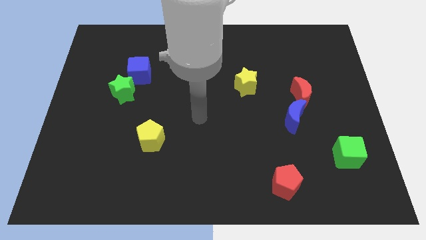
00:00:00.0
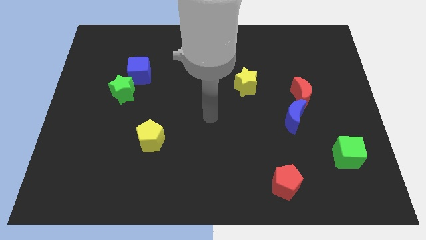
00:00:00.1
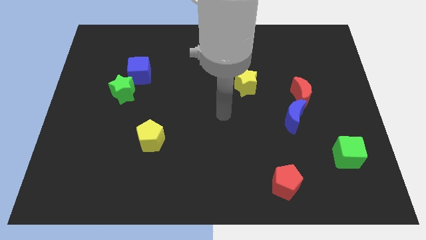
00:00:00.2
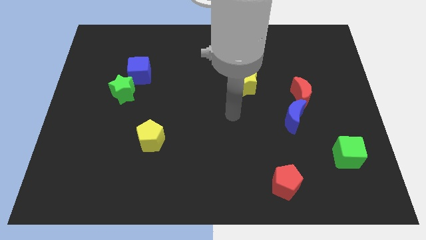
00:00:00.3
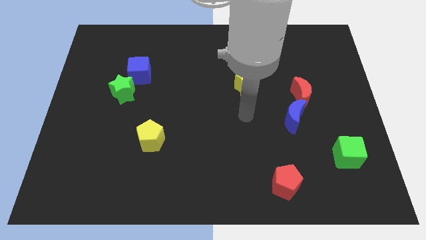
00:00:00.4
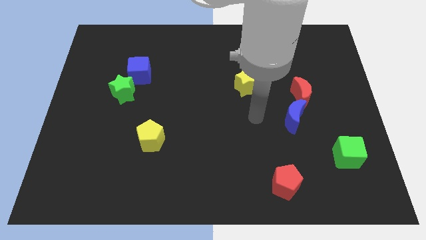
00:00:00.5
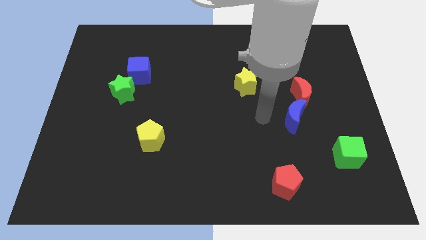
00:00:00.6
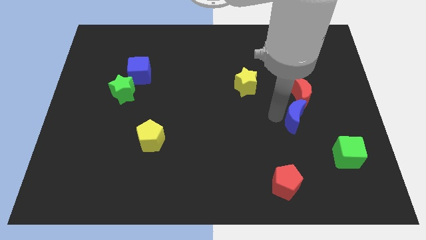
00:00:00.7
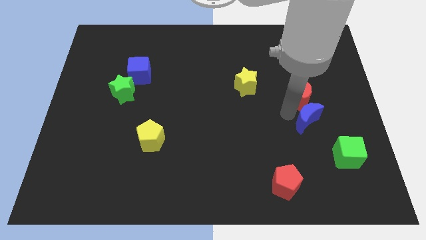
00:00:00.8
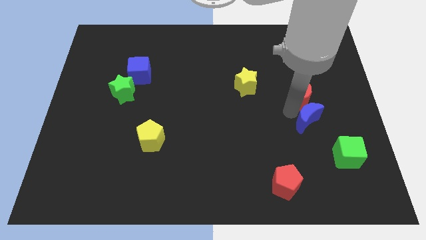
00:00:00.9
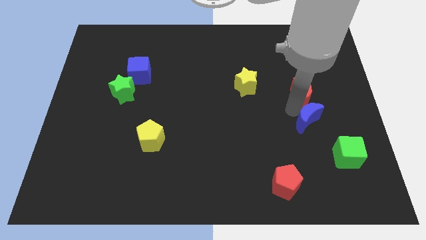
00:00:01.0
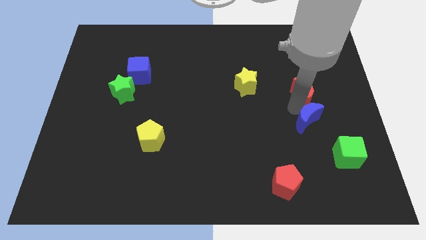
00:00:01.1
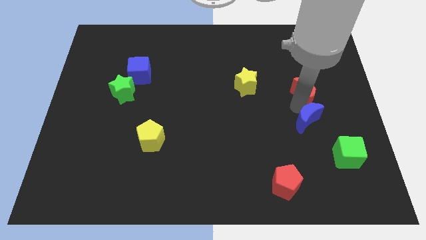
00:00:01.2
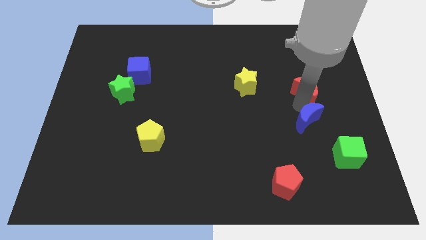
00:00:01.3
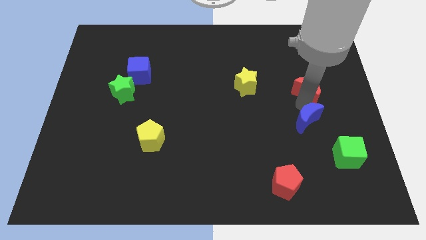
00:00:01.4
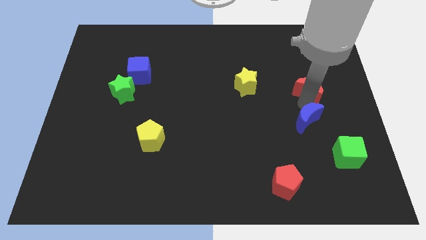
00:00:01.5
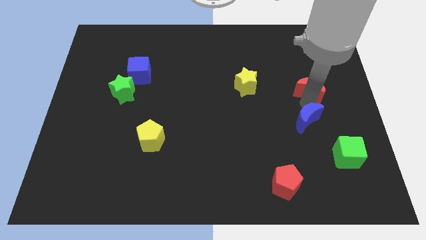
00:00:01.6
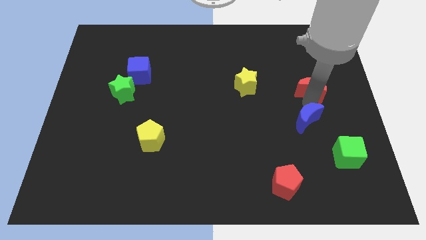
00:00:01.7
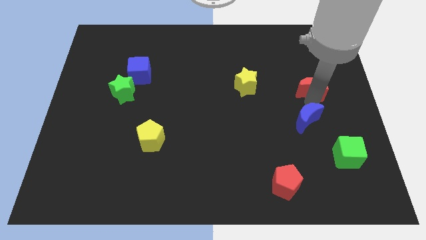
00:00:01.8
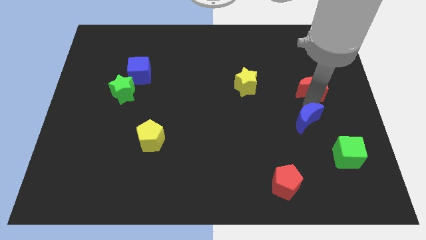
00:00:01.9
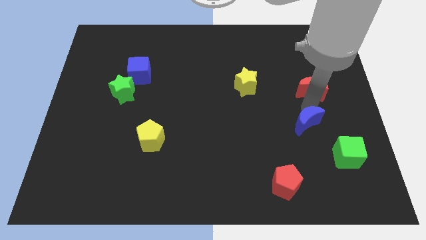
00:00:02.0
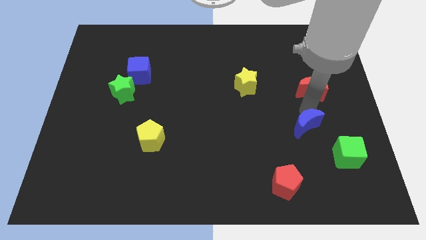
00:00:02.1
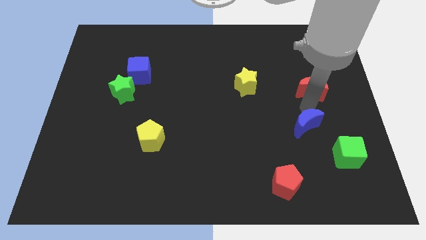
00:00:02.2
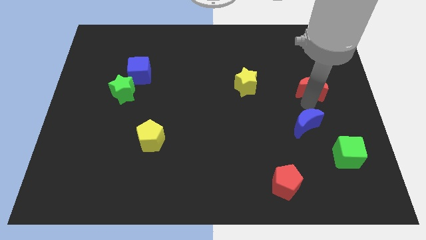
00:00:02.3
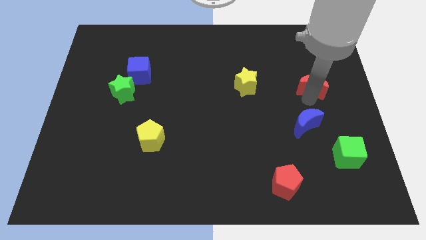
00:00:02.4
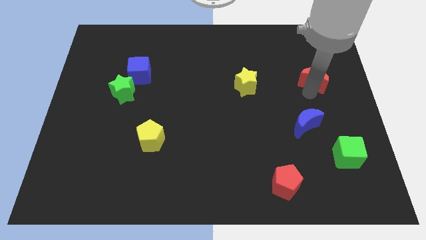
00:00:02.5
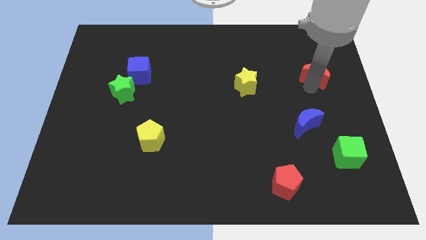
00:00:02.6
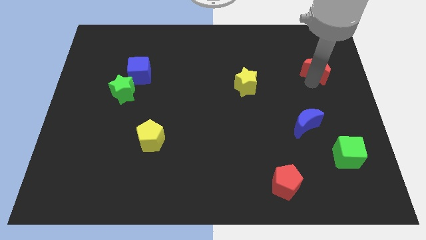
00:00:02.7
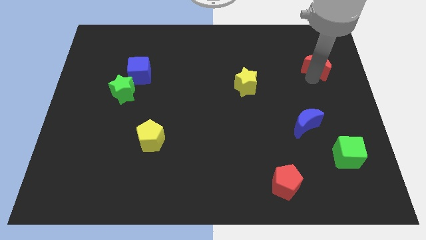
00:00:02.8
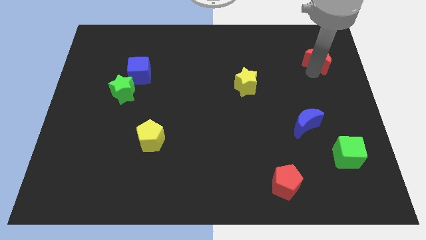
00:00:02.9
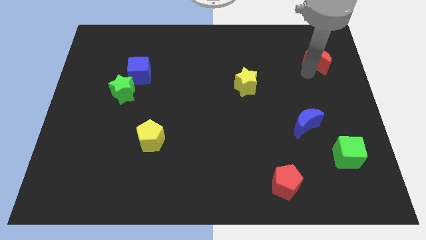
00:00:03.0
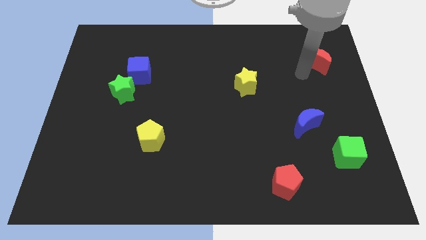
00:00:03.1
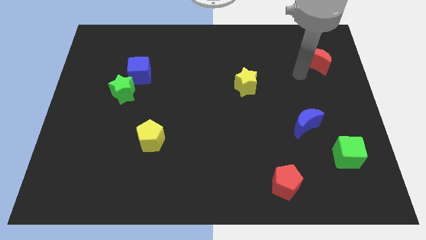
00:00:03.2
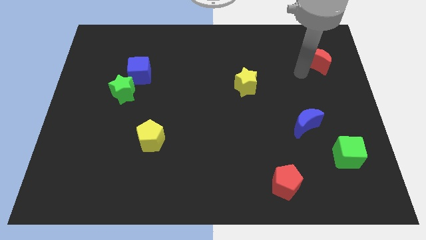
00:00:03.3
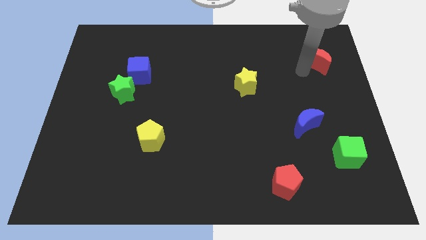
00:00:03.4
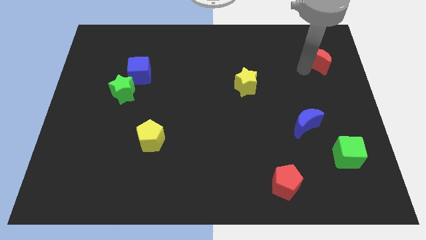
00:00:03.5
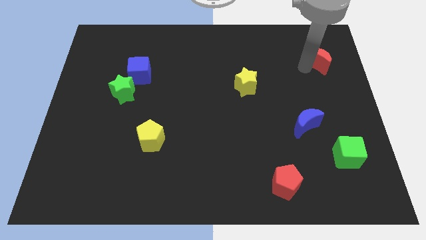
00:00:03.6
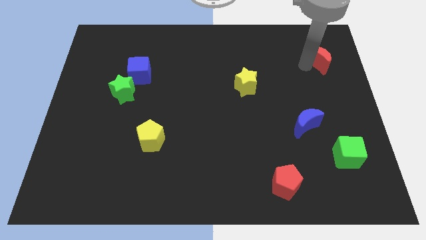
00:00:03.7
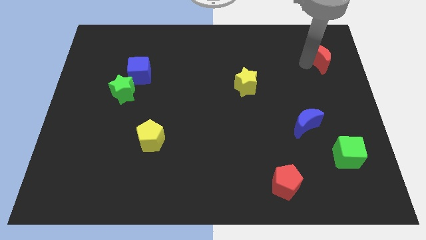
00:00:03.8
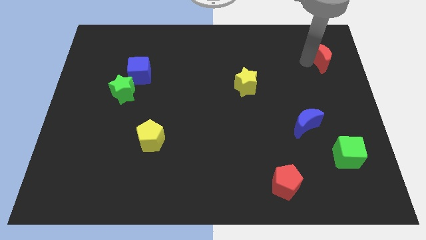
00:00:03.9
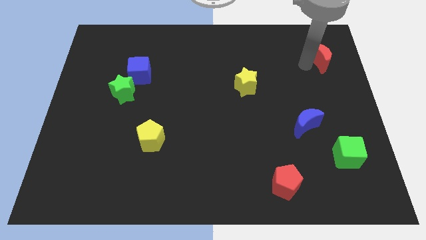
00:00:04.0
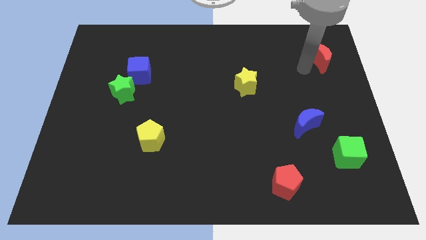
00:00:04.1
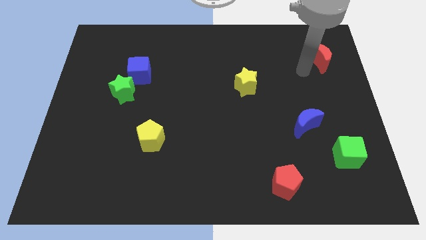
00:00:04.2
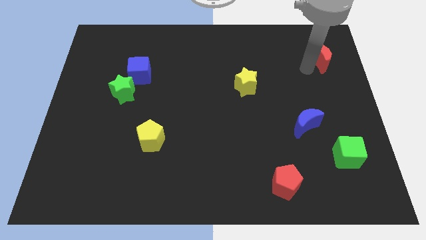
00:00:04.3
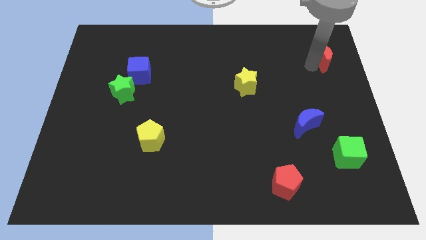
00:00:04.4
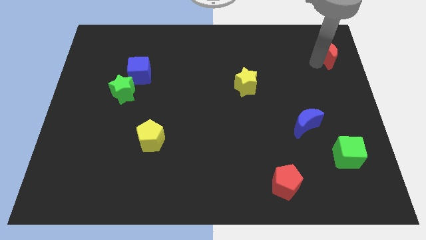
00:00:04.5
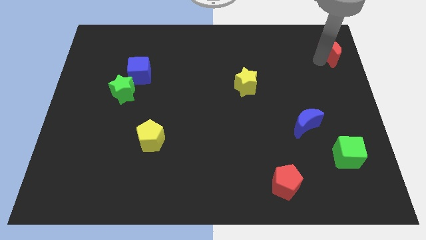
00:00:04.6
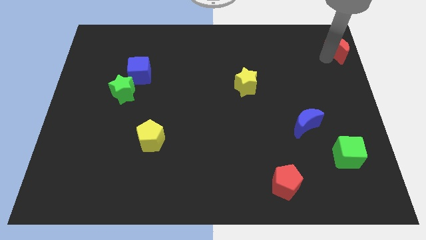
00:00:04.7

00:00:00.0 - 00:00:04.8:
move the red moon to the top right

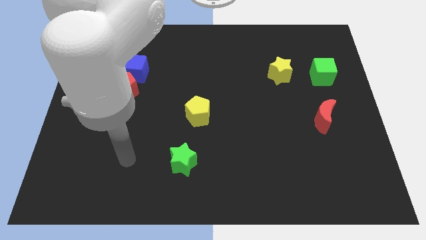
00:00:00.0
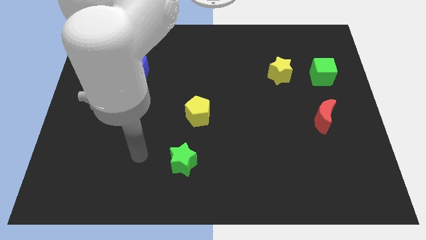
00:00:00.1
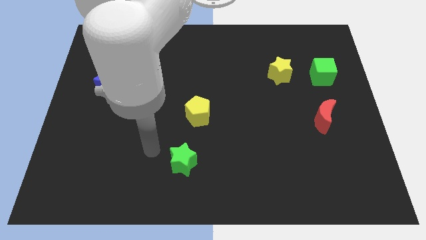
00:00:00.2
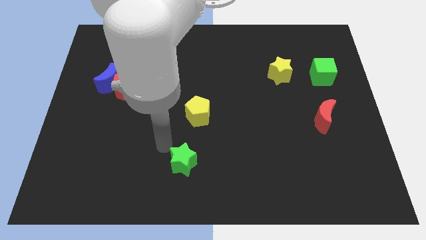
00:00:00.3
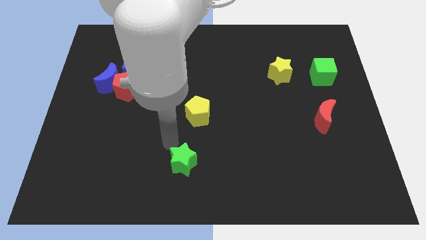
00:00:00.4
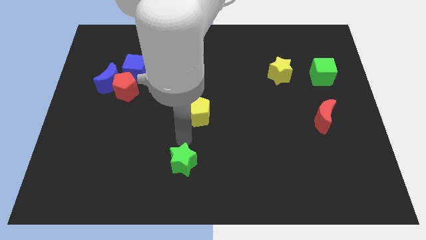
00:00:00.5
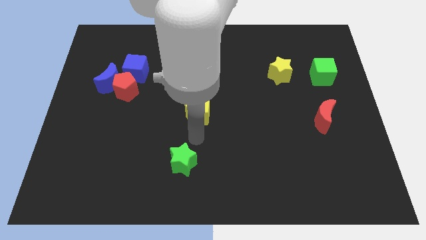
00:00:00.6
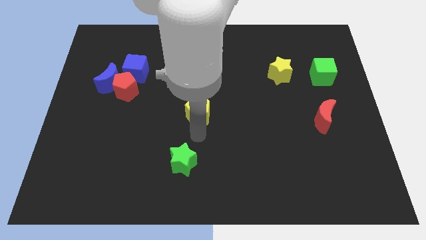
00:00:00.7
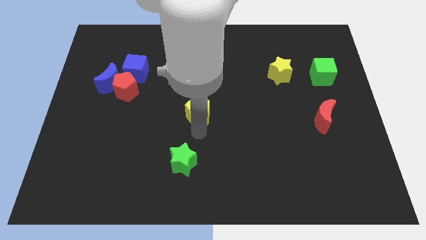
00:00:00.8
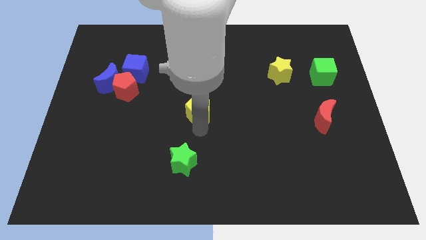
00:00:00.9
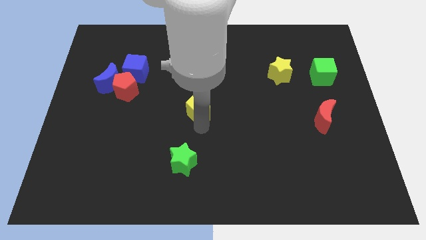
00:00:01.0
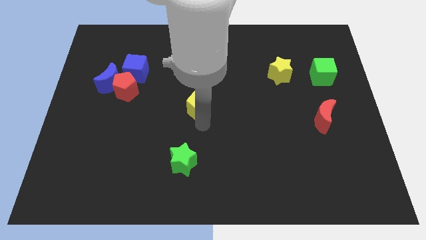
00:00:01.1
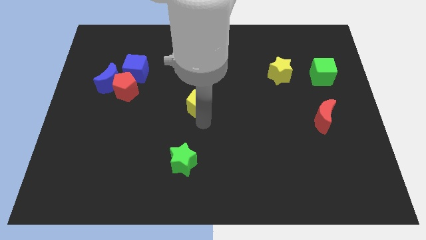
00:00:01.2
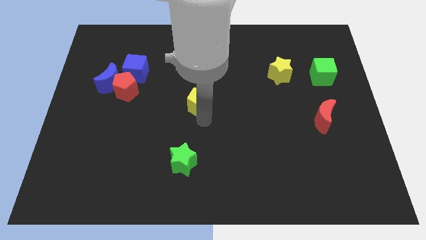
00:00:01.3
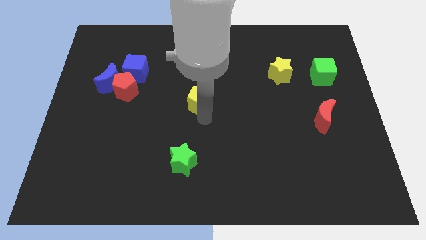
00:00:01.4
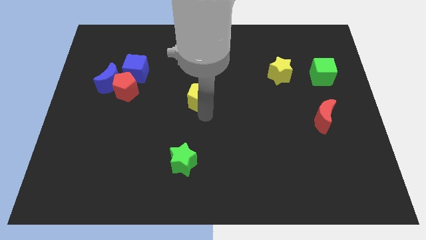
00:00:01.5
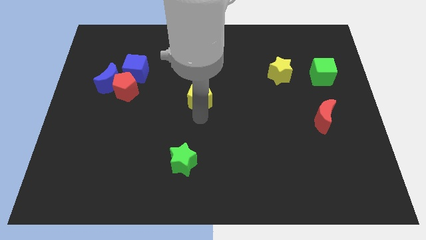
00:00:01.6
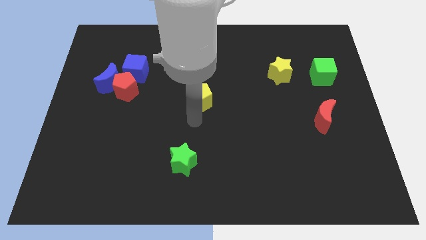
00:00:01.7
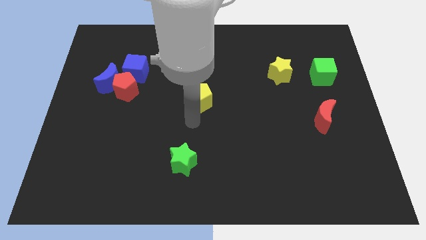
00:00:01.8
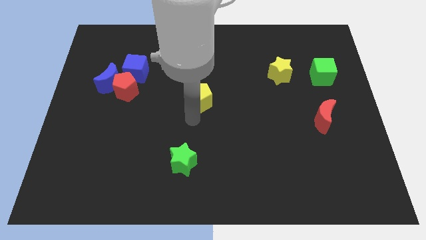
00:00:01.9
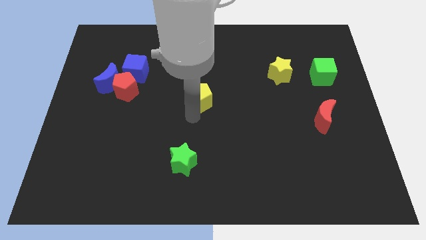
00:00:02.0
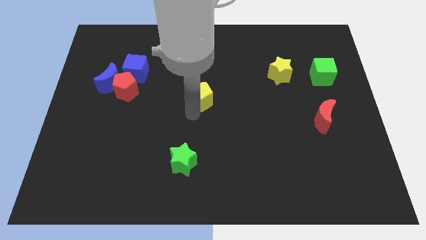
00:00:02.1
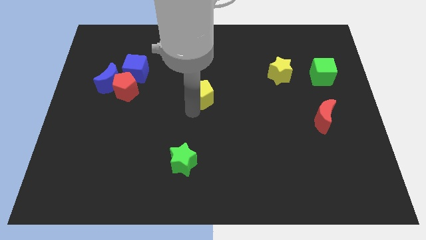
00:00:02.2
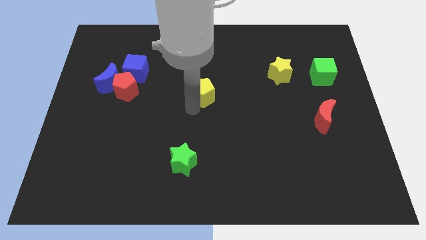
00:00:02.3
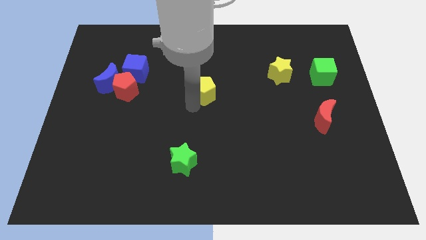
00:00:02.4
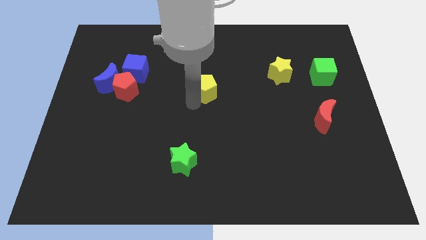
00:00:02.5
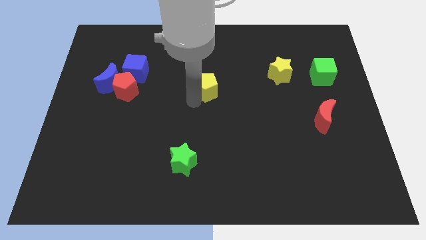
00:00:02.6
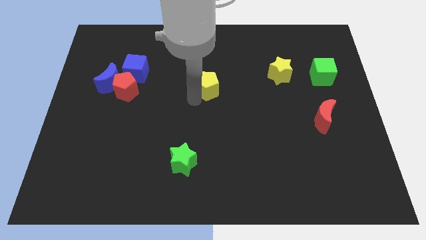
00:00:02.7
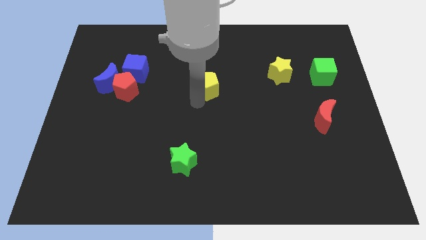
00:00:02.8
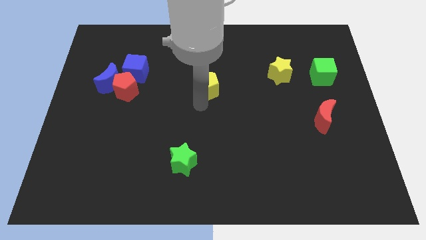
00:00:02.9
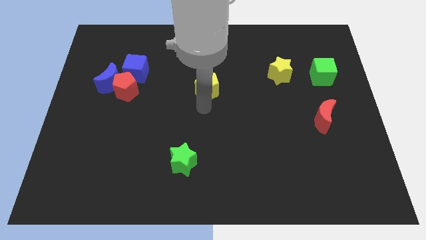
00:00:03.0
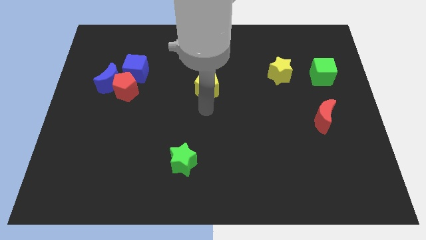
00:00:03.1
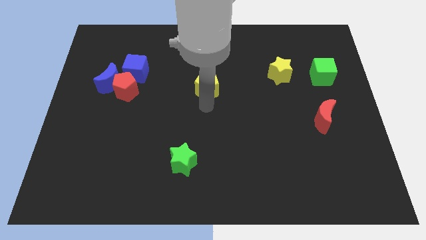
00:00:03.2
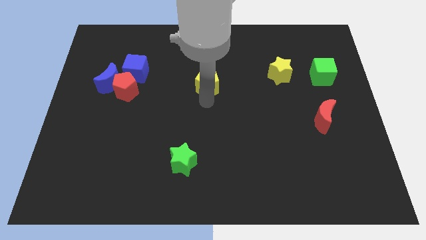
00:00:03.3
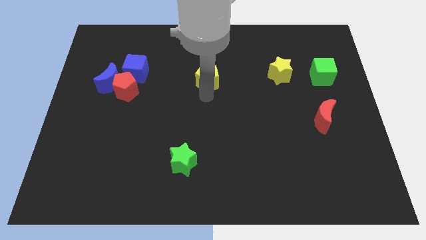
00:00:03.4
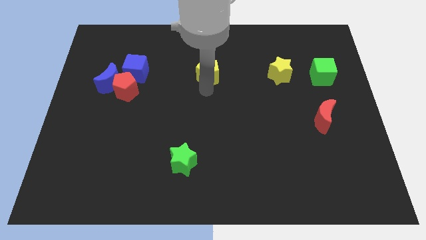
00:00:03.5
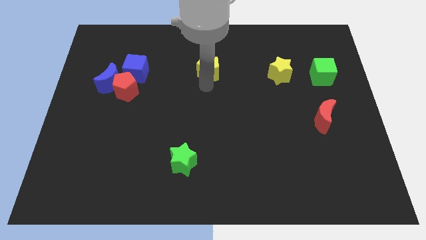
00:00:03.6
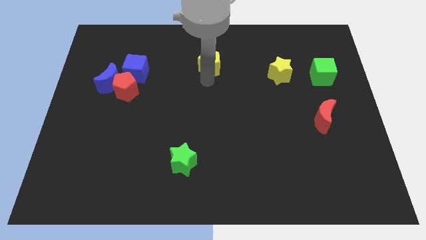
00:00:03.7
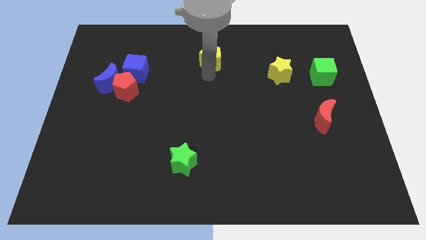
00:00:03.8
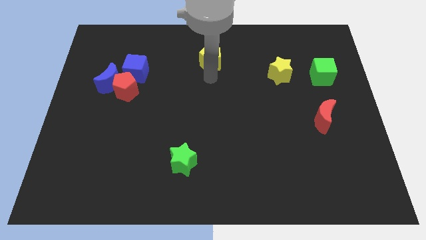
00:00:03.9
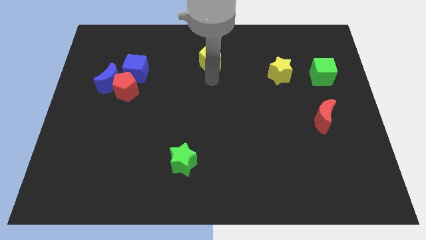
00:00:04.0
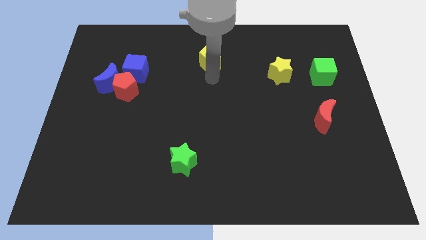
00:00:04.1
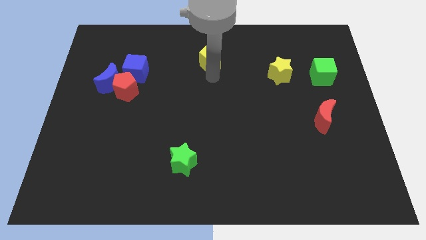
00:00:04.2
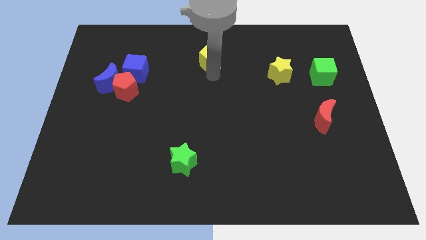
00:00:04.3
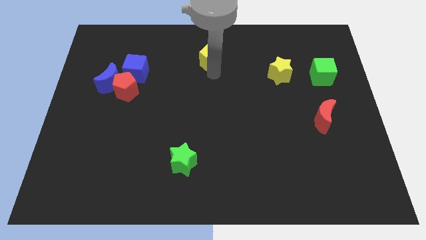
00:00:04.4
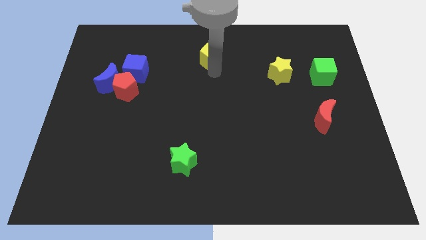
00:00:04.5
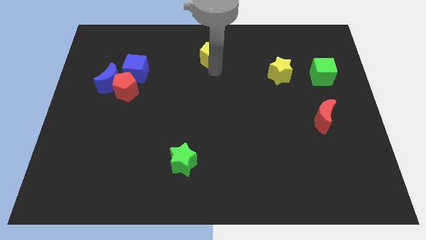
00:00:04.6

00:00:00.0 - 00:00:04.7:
slide the yellow pentagon to the top side
